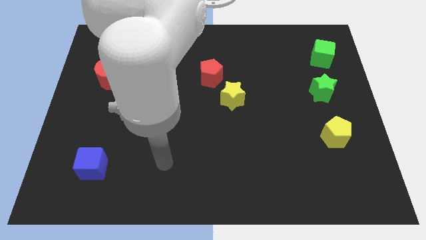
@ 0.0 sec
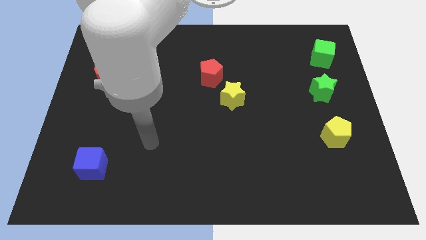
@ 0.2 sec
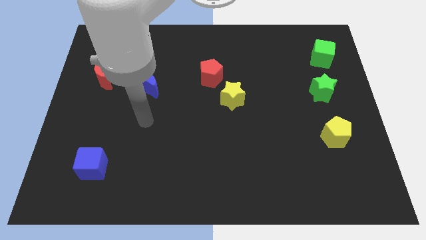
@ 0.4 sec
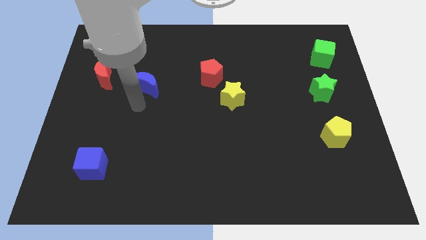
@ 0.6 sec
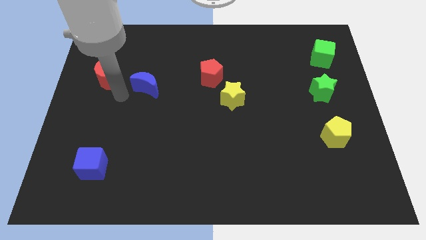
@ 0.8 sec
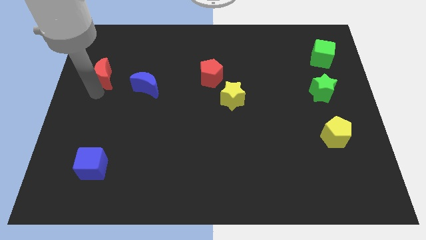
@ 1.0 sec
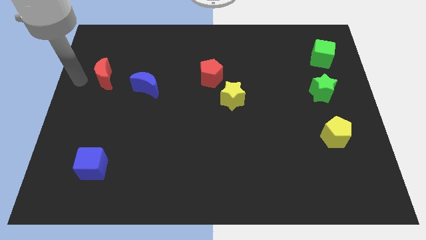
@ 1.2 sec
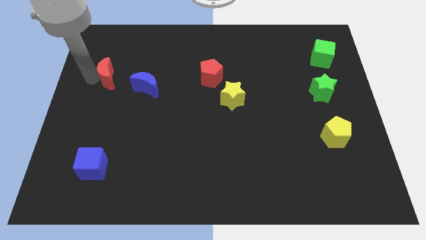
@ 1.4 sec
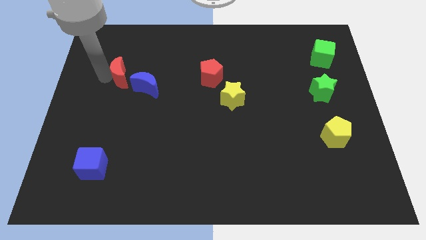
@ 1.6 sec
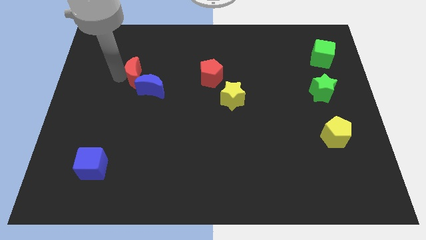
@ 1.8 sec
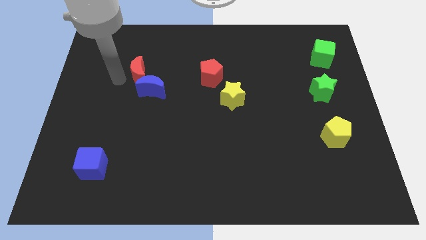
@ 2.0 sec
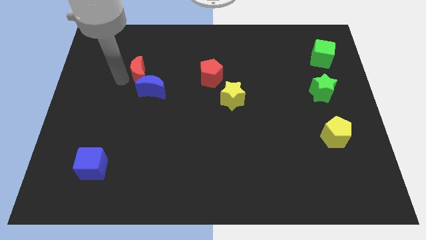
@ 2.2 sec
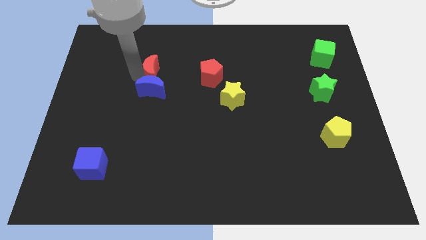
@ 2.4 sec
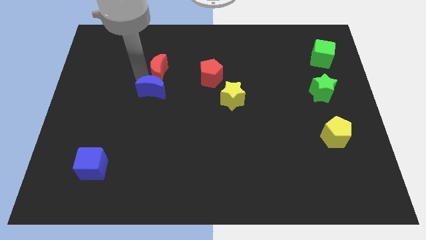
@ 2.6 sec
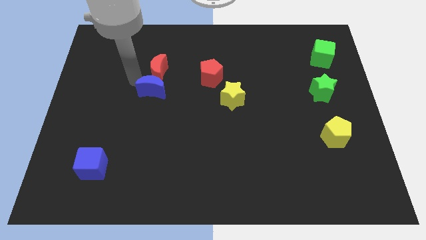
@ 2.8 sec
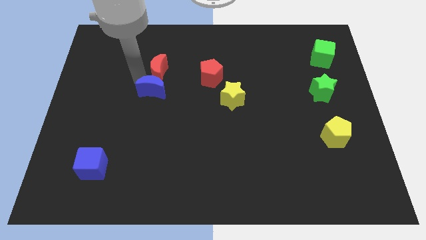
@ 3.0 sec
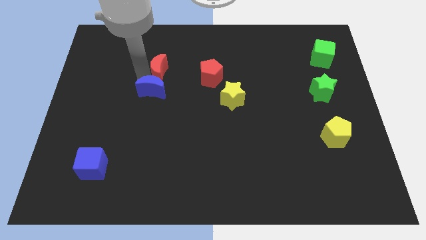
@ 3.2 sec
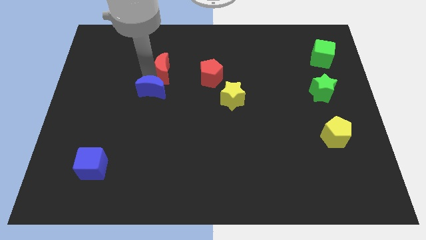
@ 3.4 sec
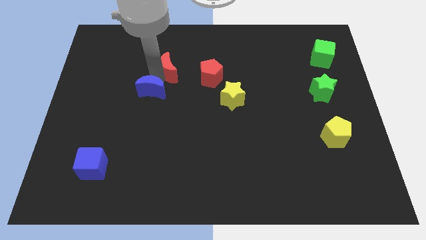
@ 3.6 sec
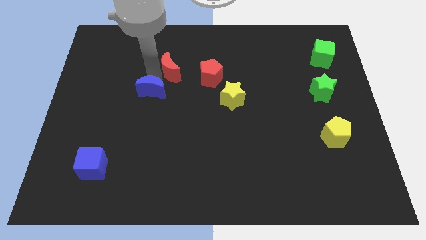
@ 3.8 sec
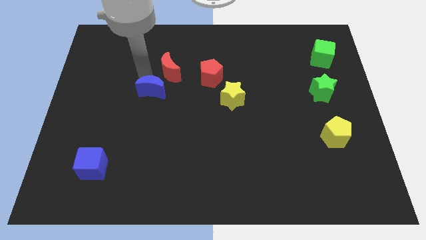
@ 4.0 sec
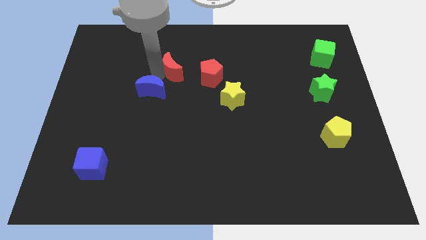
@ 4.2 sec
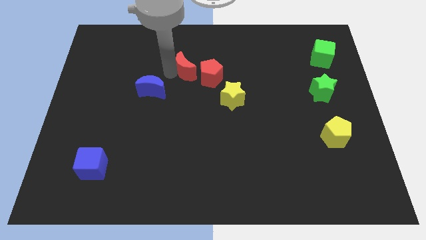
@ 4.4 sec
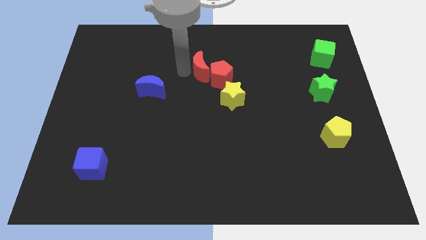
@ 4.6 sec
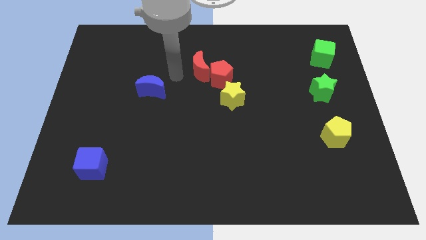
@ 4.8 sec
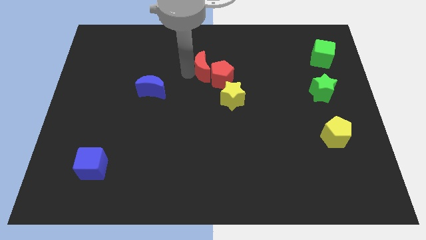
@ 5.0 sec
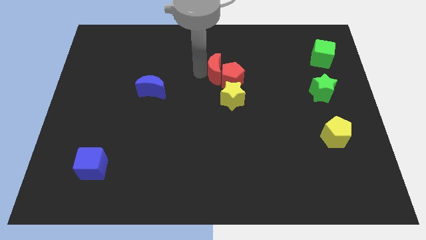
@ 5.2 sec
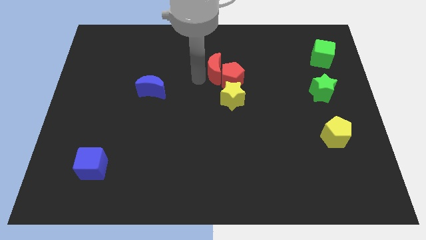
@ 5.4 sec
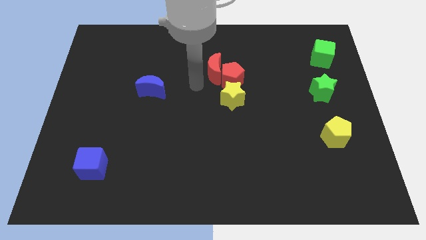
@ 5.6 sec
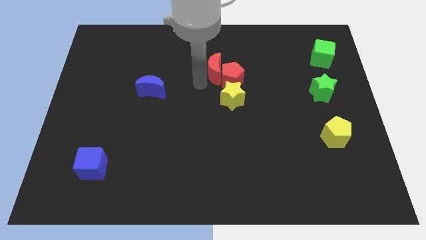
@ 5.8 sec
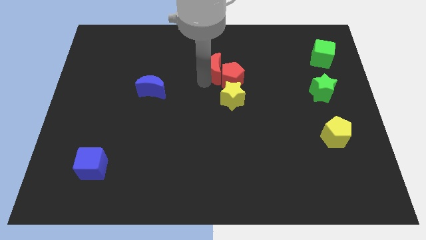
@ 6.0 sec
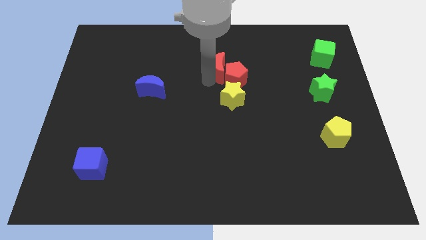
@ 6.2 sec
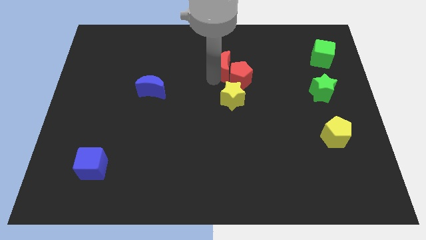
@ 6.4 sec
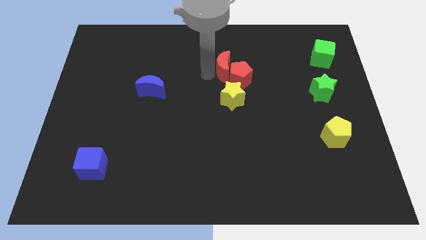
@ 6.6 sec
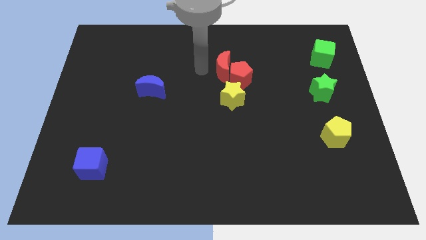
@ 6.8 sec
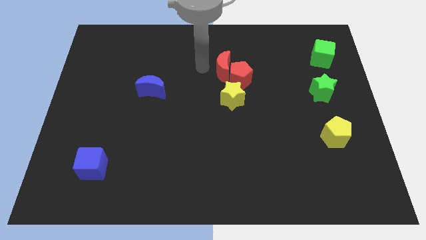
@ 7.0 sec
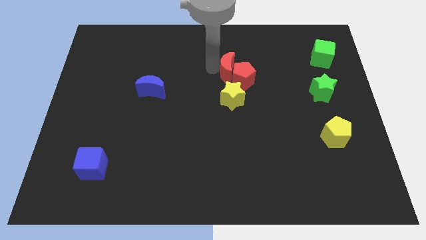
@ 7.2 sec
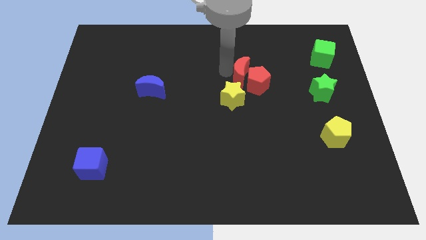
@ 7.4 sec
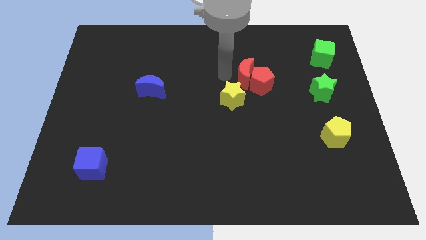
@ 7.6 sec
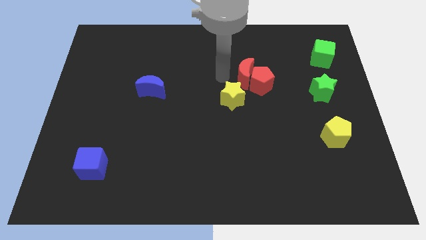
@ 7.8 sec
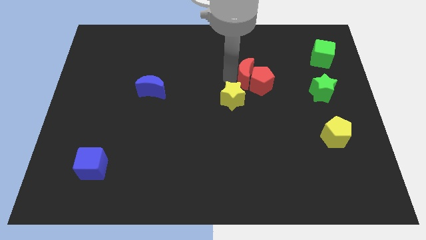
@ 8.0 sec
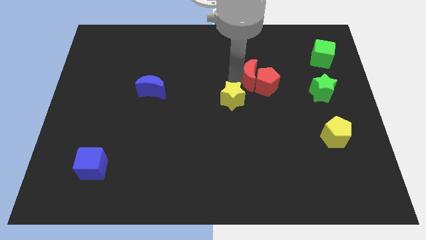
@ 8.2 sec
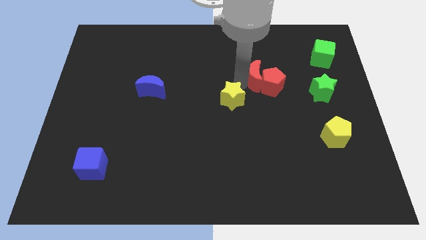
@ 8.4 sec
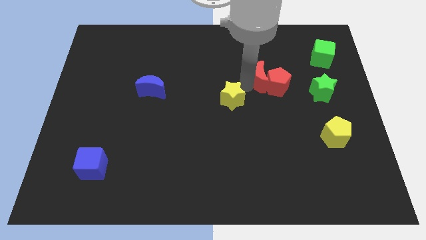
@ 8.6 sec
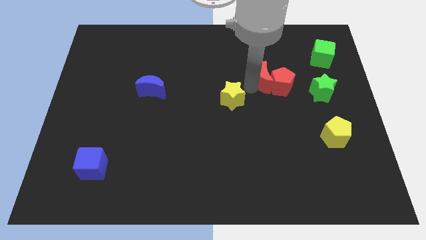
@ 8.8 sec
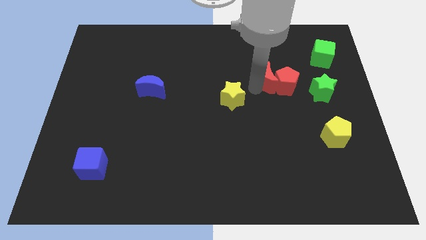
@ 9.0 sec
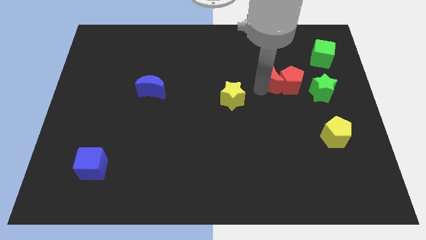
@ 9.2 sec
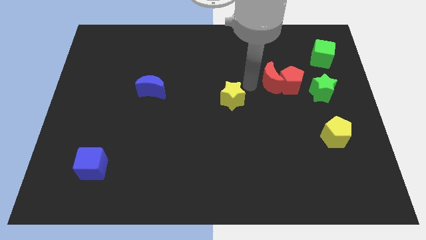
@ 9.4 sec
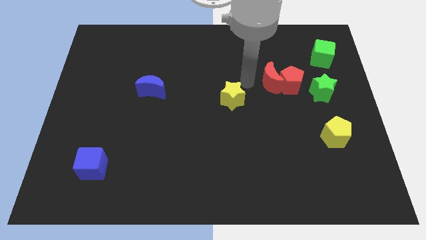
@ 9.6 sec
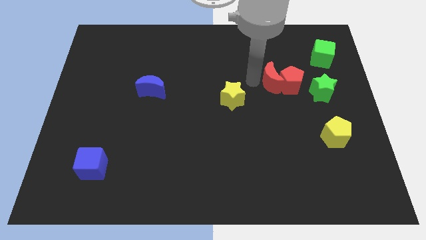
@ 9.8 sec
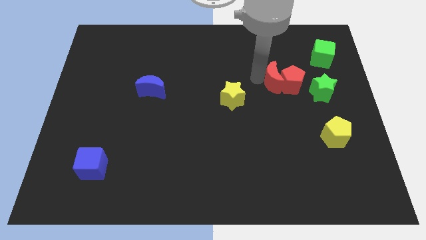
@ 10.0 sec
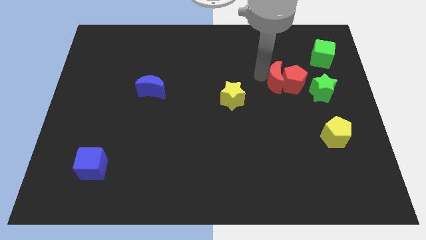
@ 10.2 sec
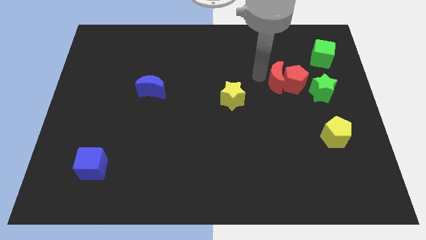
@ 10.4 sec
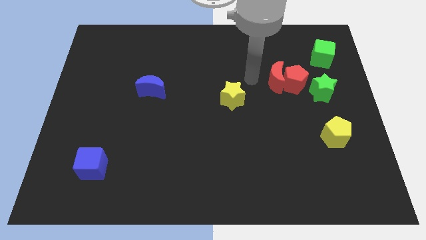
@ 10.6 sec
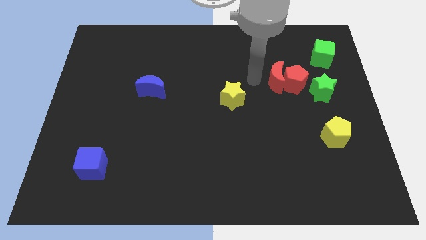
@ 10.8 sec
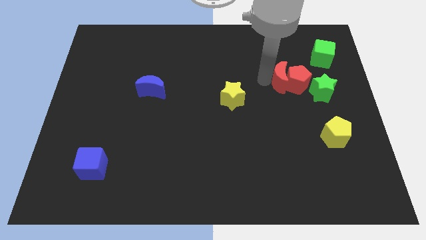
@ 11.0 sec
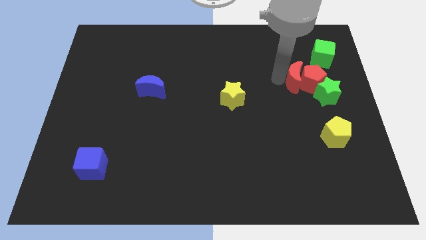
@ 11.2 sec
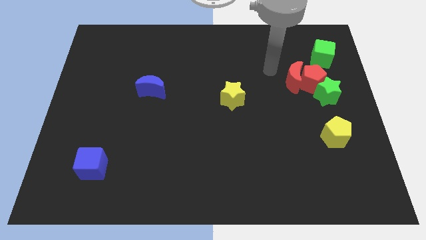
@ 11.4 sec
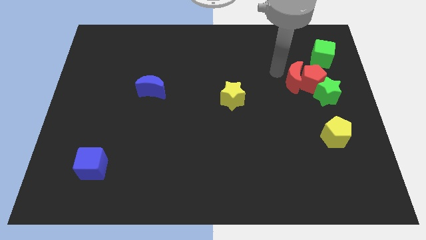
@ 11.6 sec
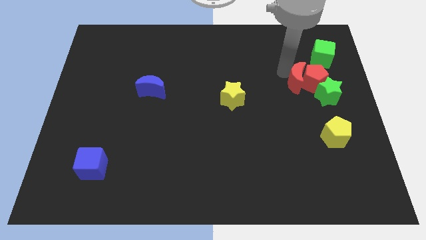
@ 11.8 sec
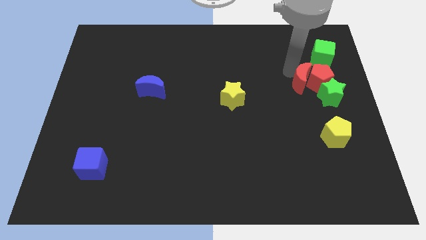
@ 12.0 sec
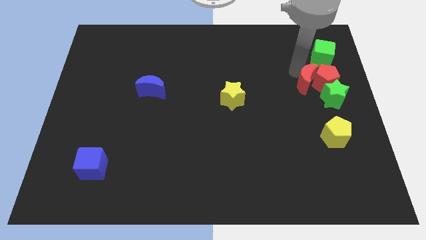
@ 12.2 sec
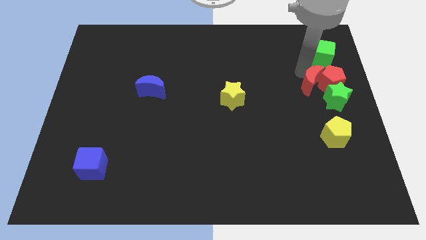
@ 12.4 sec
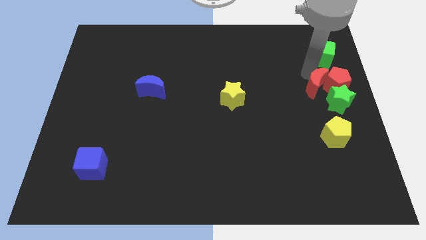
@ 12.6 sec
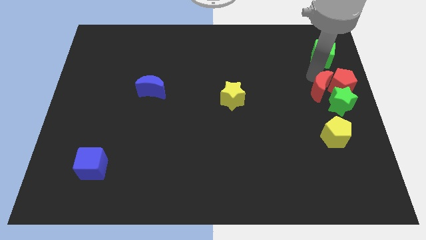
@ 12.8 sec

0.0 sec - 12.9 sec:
put the red moon towards the green star
